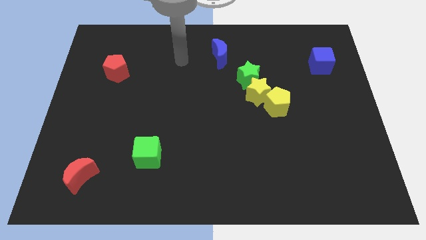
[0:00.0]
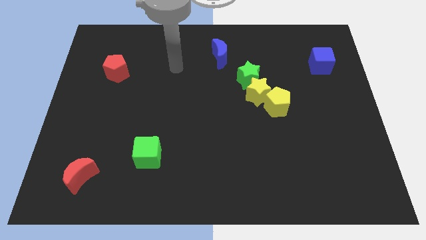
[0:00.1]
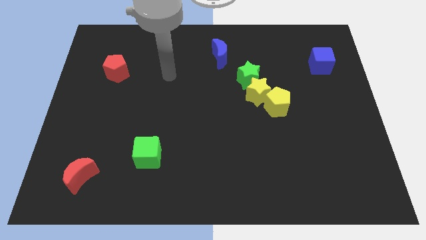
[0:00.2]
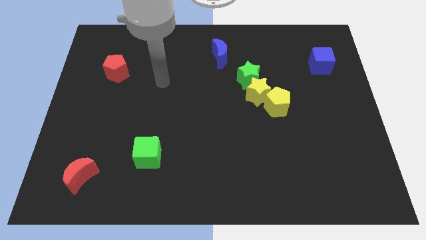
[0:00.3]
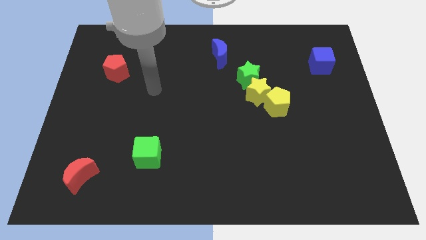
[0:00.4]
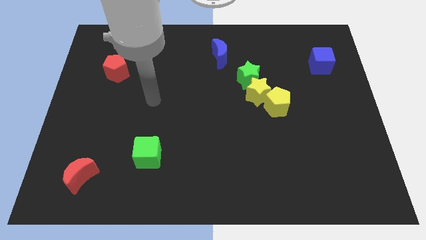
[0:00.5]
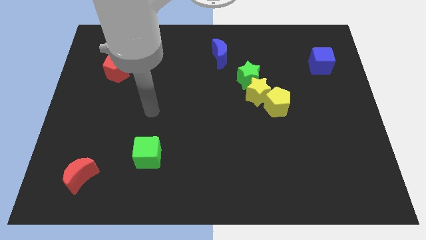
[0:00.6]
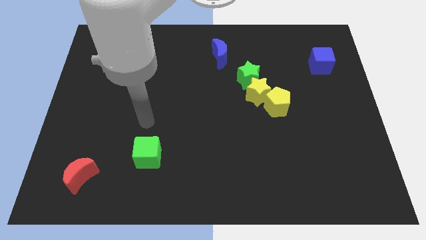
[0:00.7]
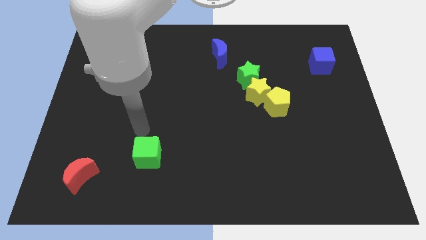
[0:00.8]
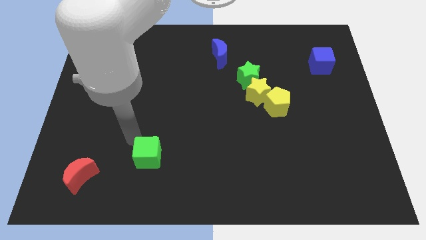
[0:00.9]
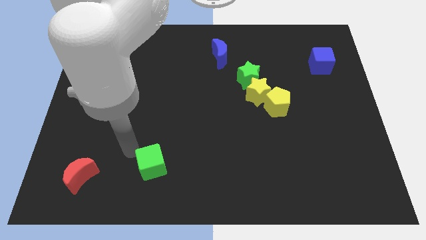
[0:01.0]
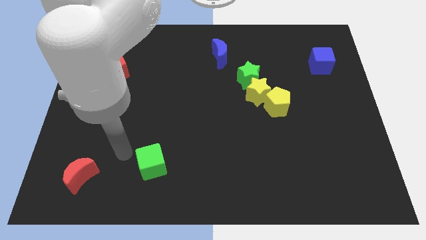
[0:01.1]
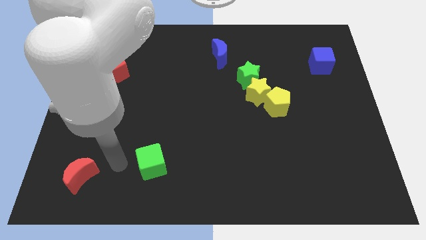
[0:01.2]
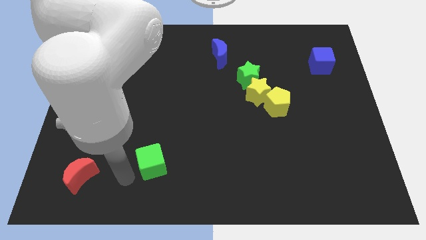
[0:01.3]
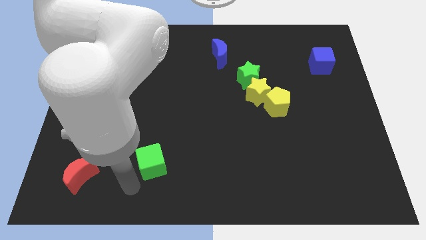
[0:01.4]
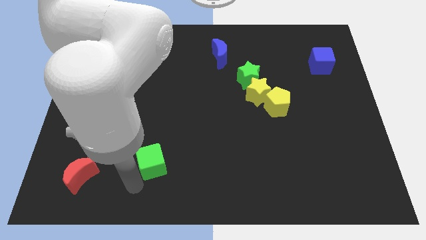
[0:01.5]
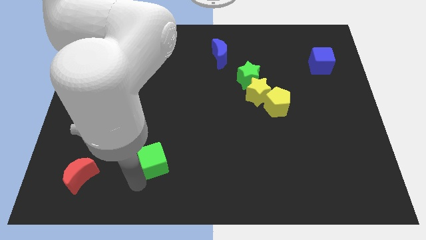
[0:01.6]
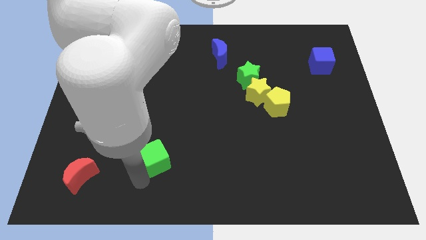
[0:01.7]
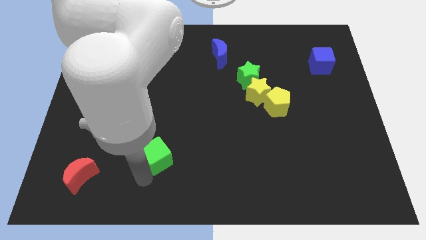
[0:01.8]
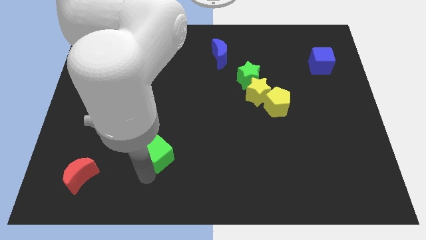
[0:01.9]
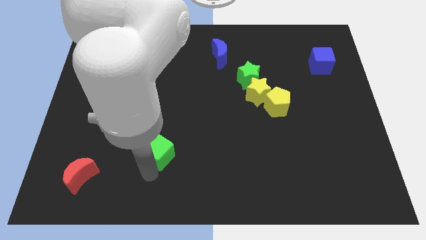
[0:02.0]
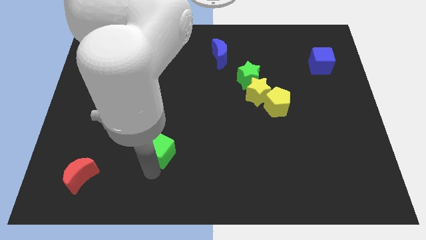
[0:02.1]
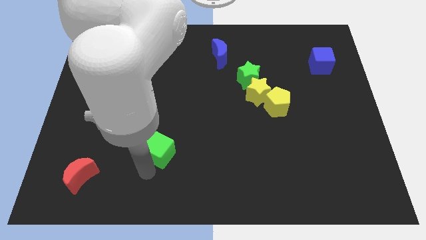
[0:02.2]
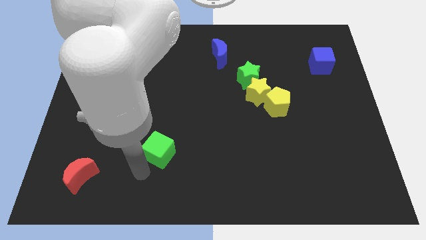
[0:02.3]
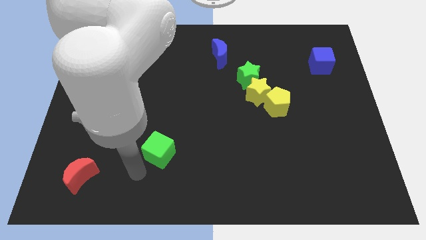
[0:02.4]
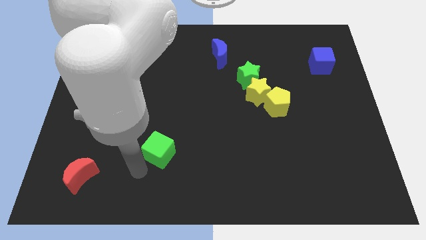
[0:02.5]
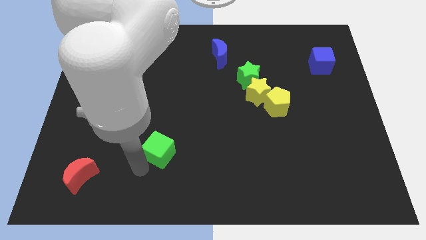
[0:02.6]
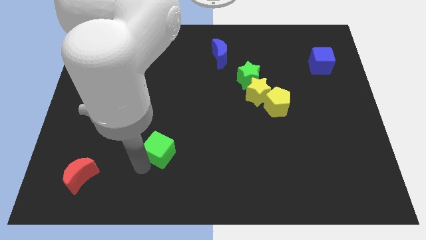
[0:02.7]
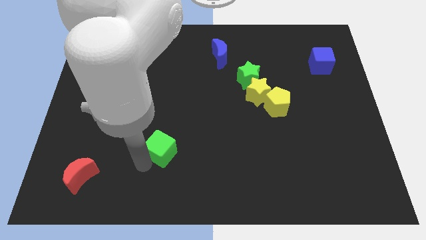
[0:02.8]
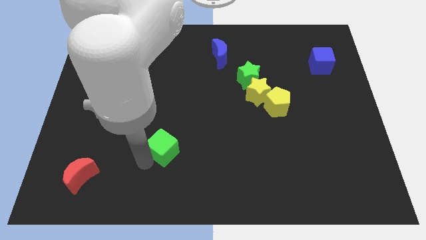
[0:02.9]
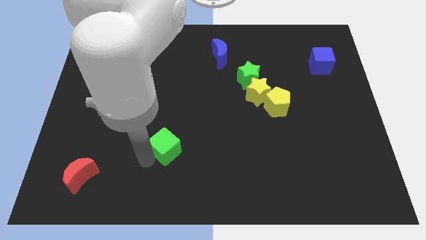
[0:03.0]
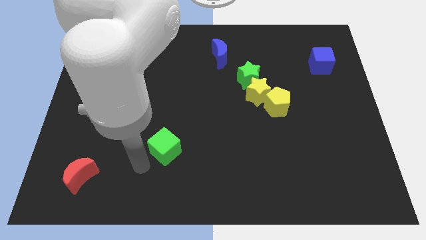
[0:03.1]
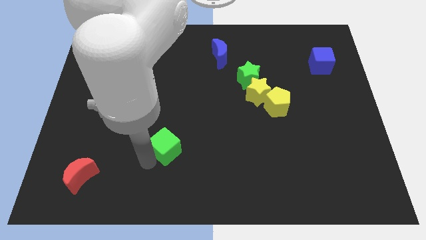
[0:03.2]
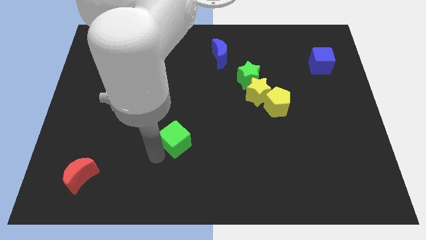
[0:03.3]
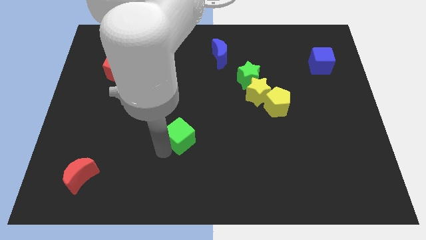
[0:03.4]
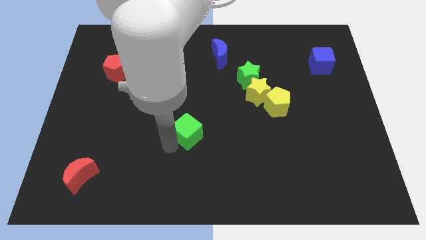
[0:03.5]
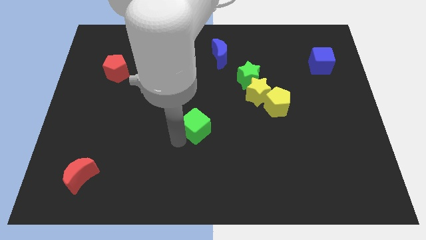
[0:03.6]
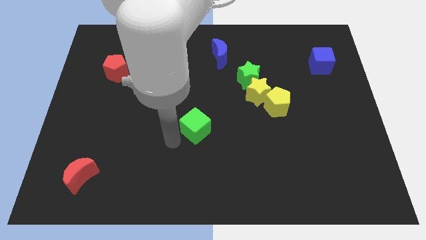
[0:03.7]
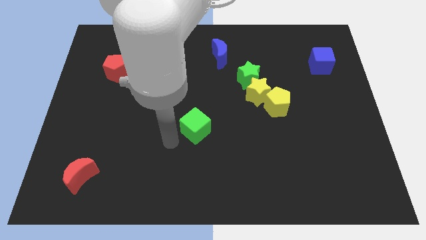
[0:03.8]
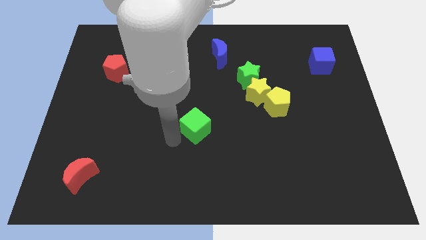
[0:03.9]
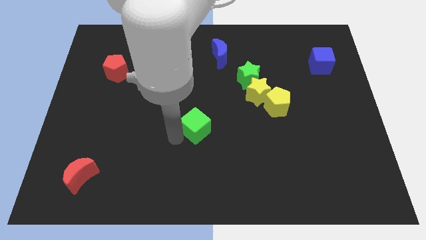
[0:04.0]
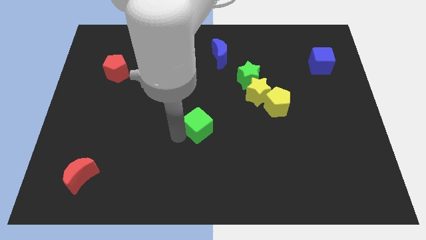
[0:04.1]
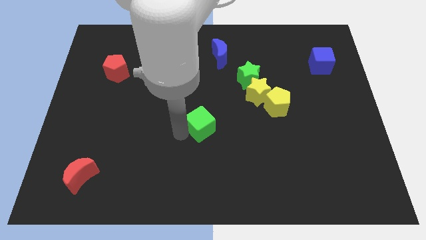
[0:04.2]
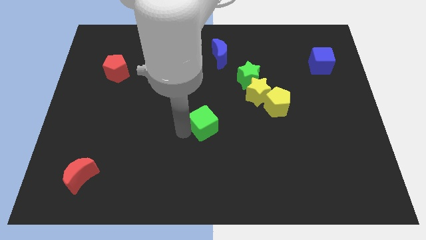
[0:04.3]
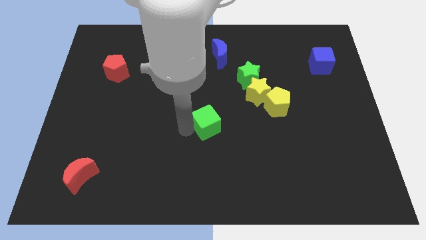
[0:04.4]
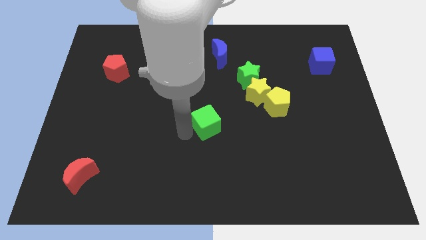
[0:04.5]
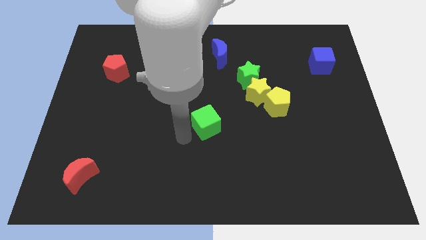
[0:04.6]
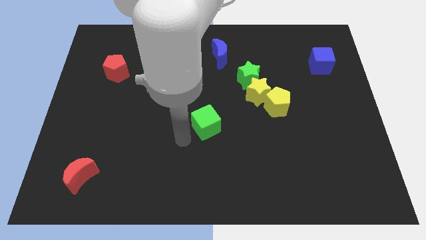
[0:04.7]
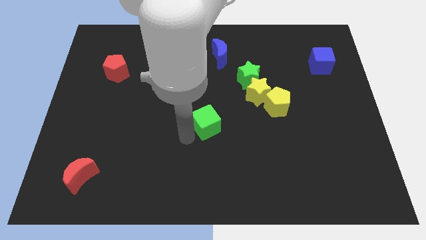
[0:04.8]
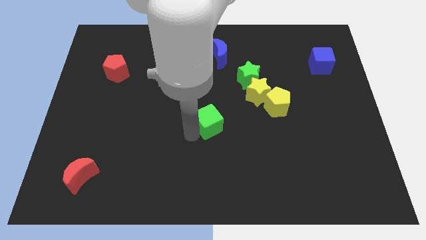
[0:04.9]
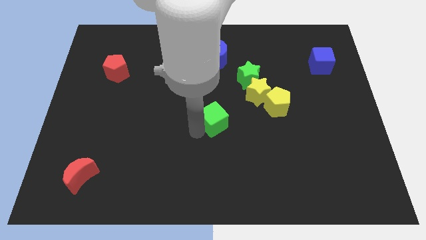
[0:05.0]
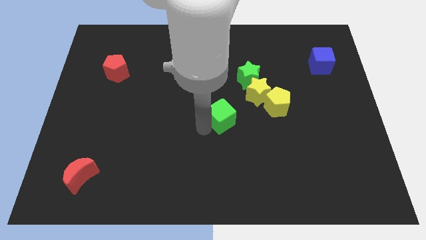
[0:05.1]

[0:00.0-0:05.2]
push the green cube just left of the yellow pentagon

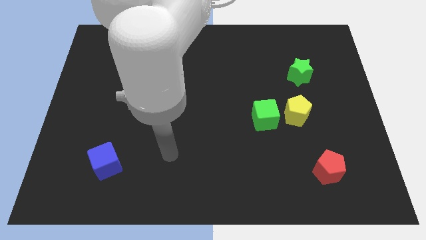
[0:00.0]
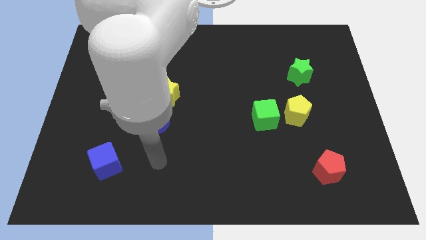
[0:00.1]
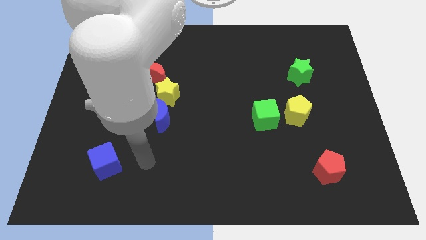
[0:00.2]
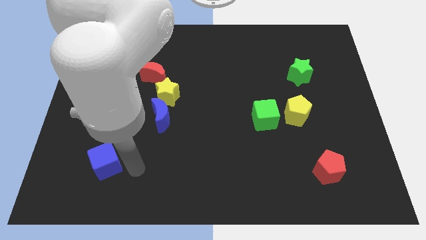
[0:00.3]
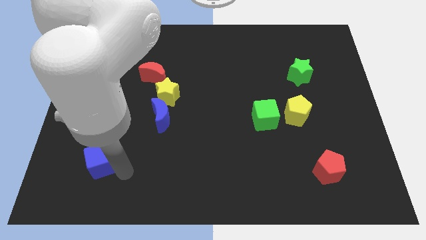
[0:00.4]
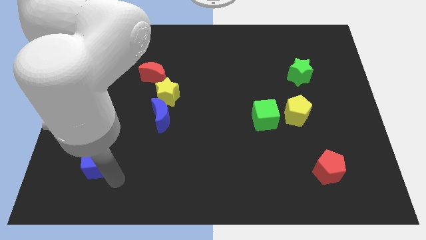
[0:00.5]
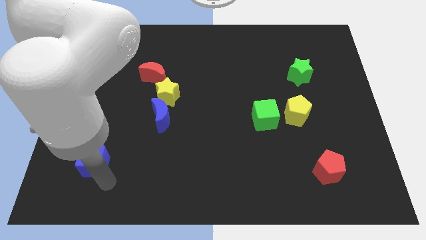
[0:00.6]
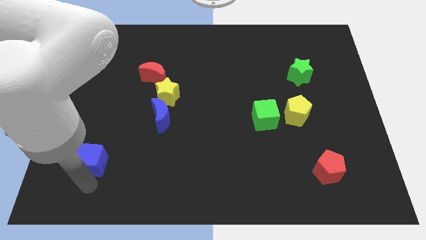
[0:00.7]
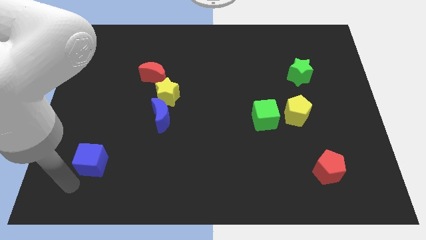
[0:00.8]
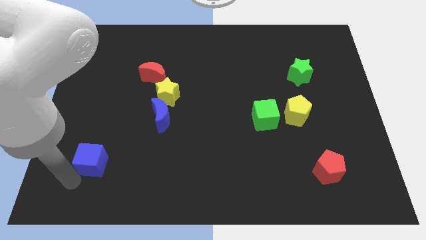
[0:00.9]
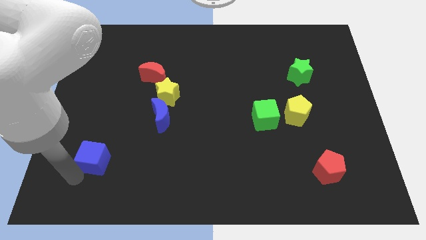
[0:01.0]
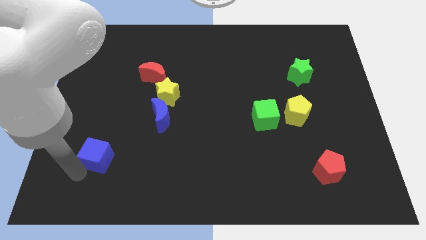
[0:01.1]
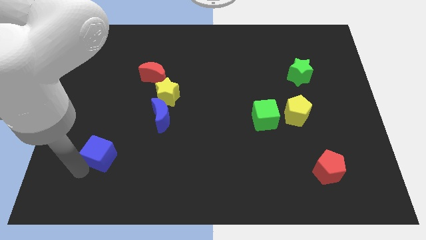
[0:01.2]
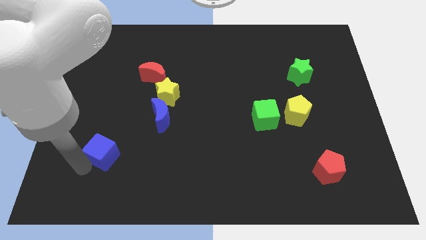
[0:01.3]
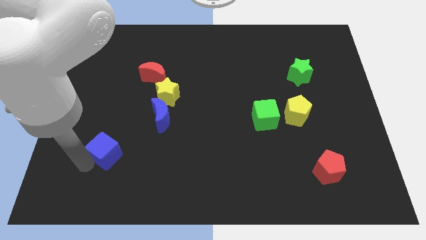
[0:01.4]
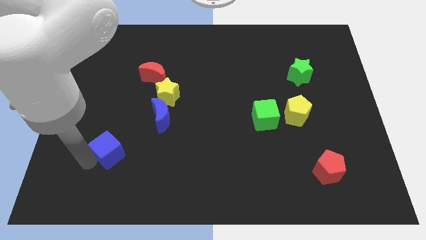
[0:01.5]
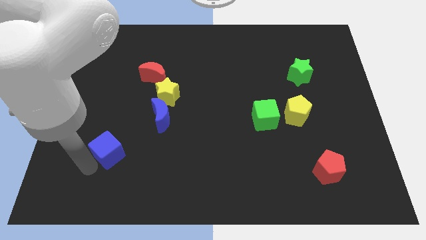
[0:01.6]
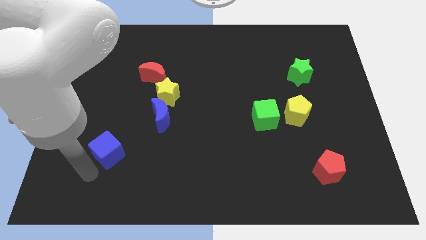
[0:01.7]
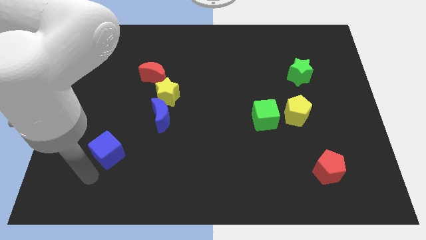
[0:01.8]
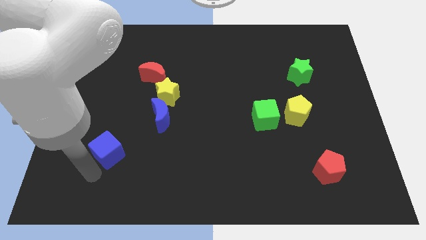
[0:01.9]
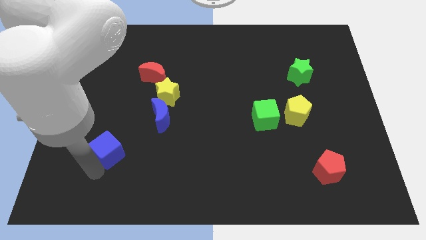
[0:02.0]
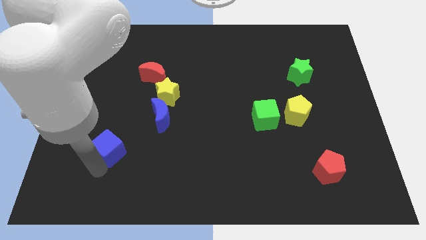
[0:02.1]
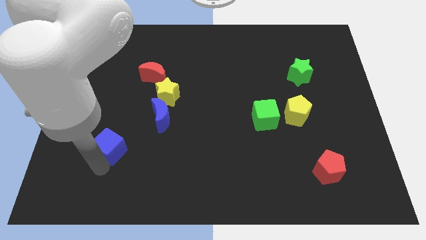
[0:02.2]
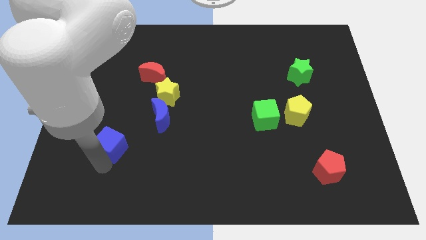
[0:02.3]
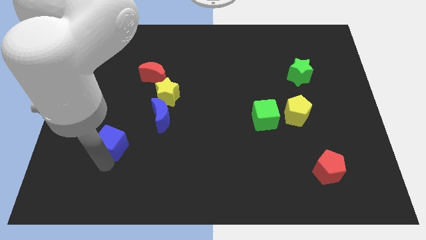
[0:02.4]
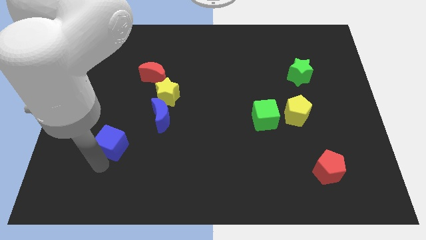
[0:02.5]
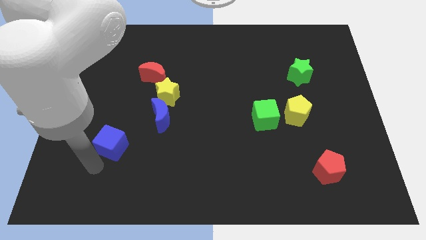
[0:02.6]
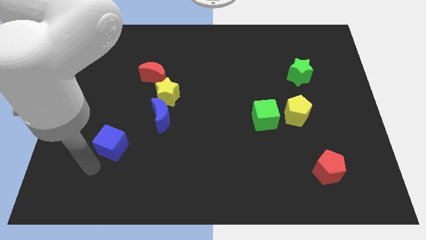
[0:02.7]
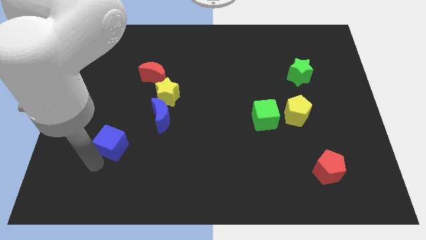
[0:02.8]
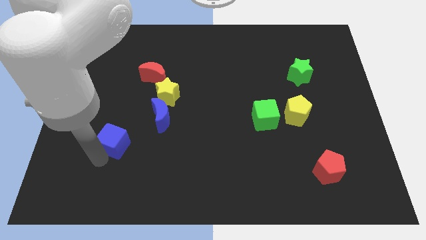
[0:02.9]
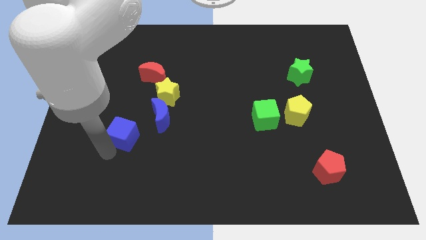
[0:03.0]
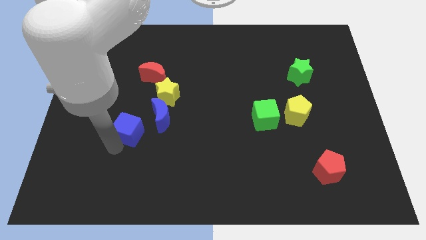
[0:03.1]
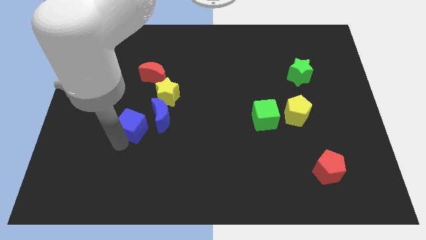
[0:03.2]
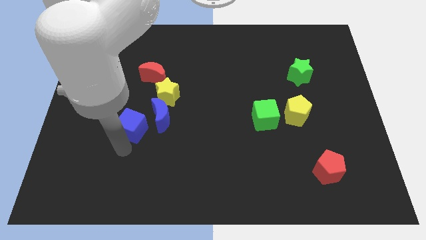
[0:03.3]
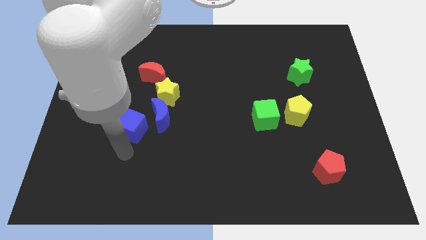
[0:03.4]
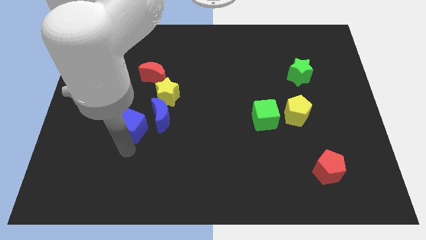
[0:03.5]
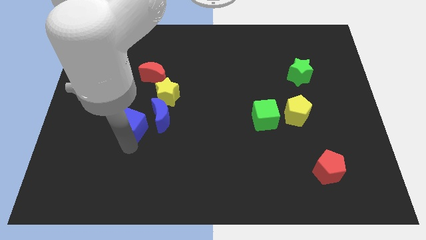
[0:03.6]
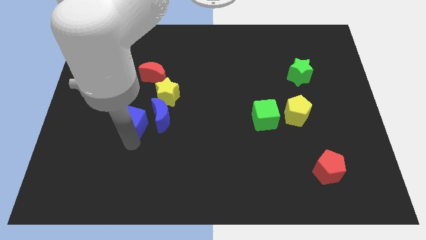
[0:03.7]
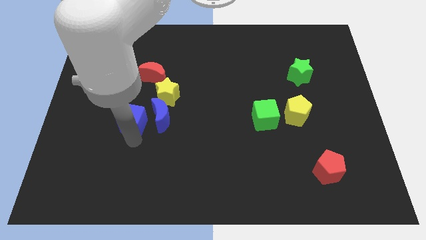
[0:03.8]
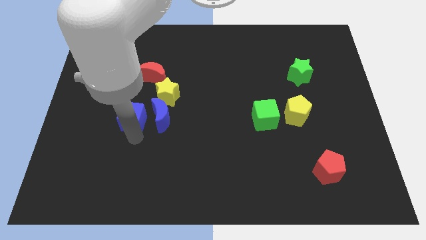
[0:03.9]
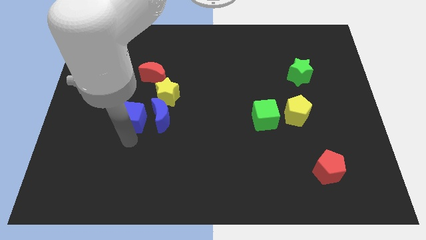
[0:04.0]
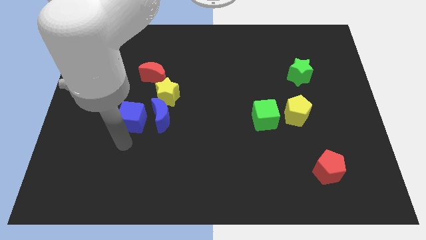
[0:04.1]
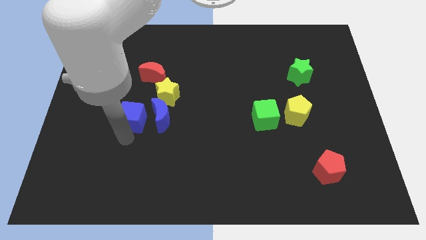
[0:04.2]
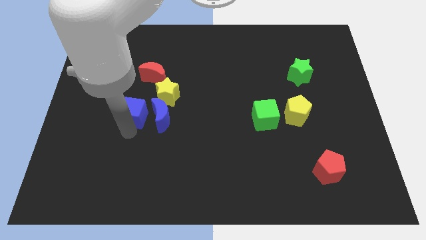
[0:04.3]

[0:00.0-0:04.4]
move the blue cube diagonally up and to the left of the blue moon
